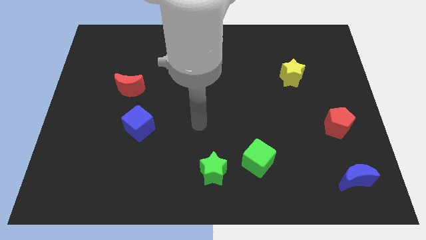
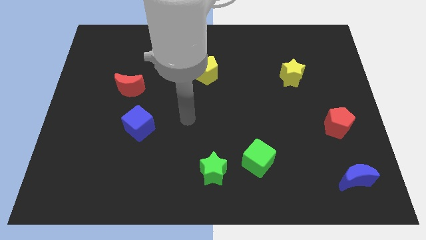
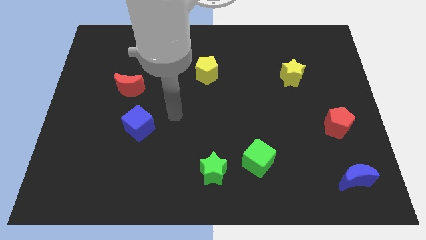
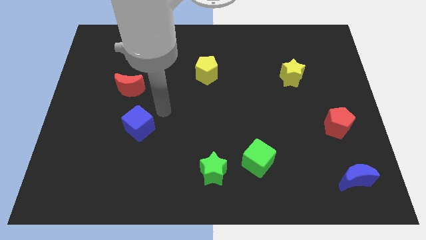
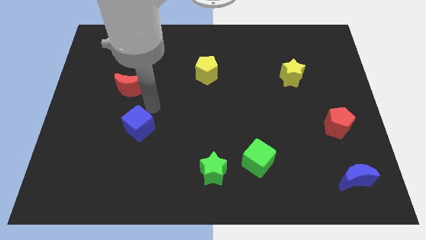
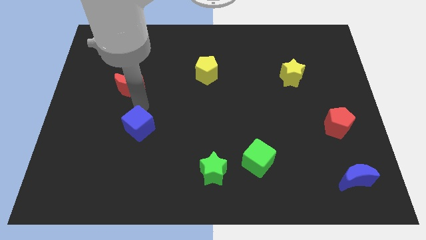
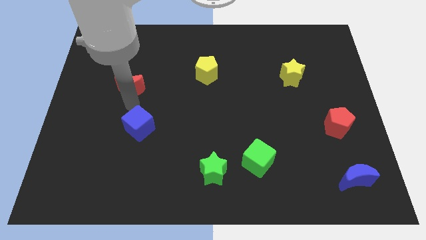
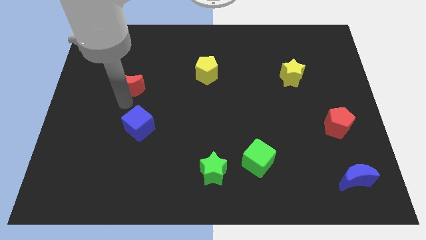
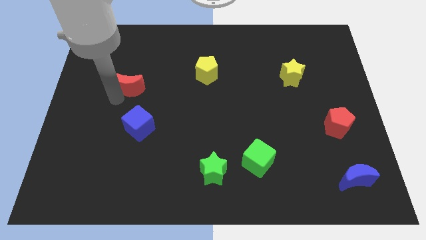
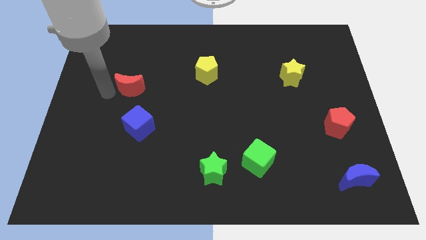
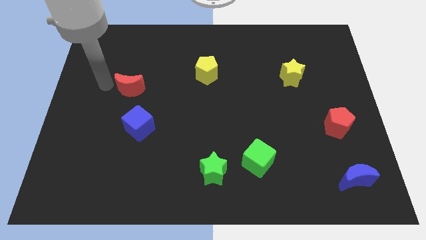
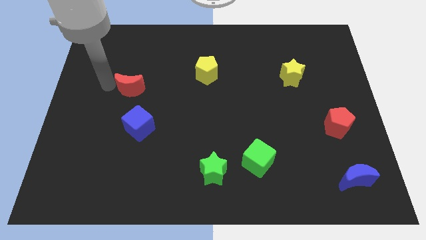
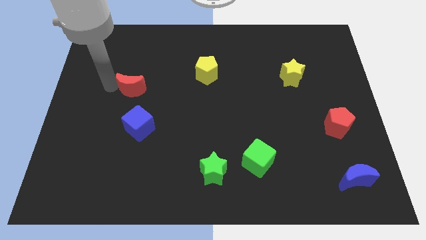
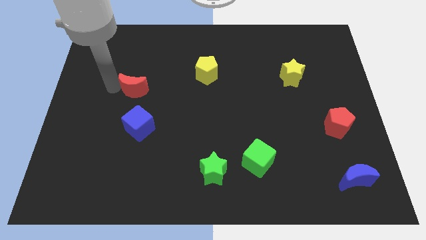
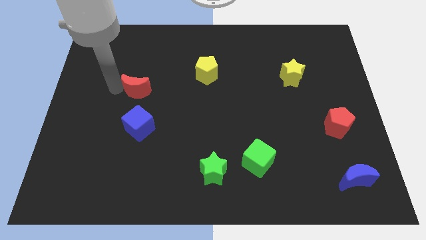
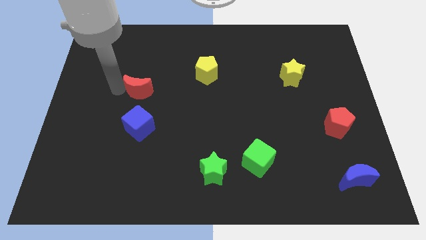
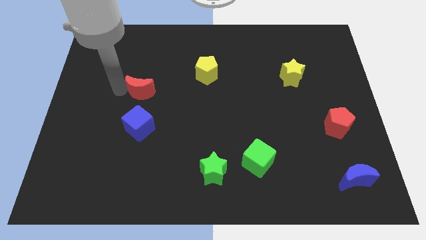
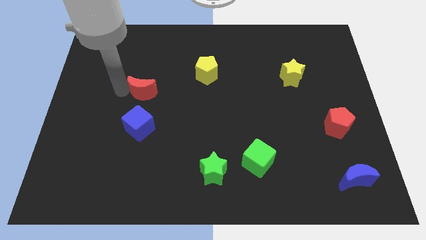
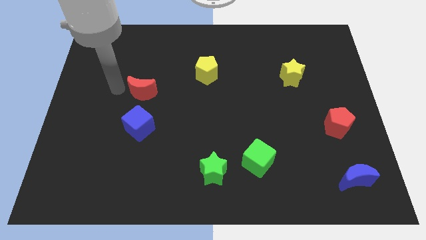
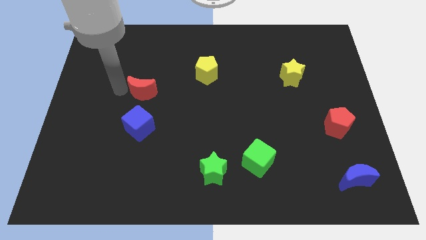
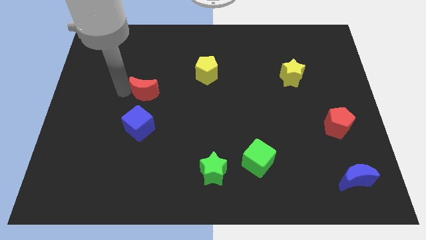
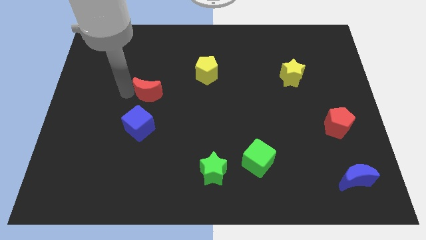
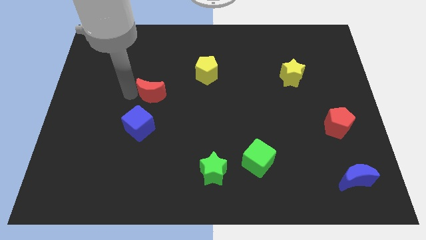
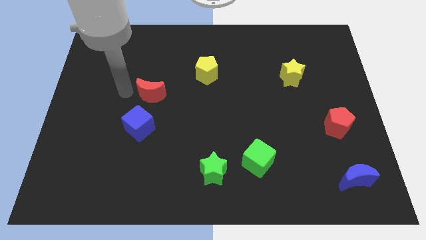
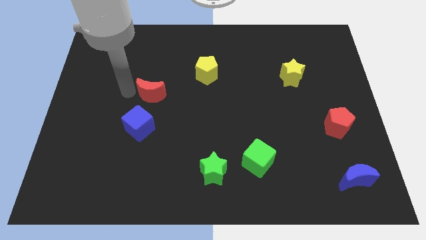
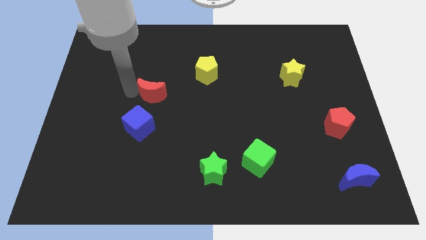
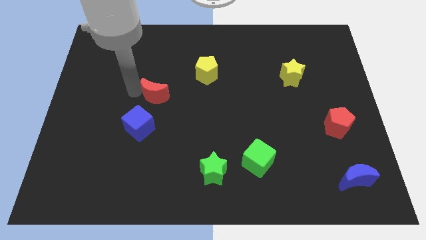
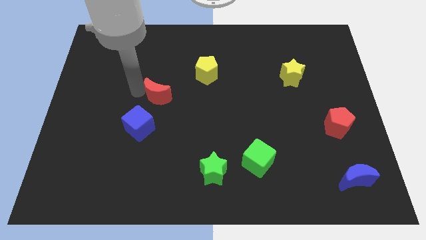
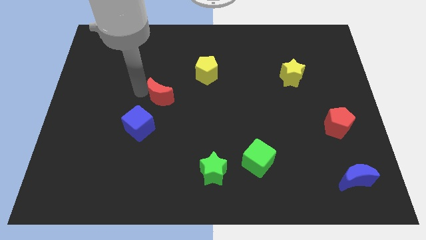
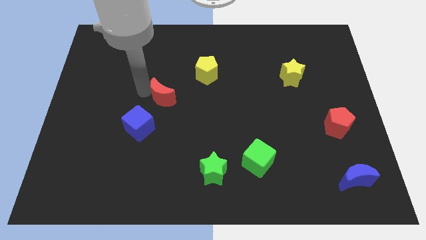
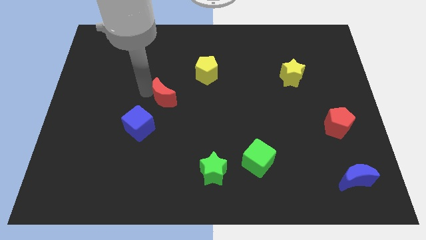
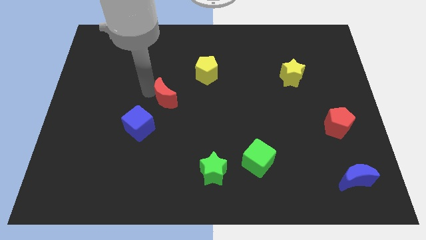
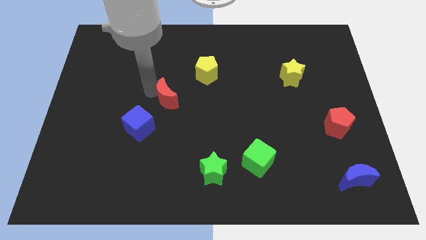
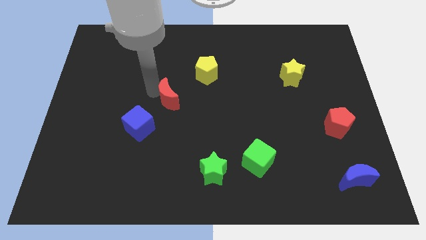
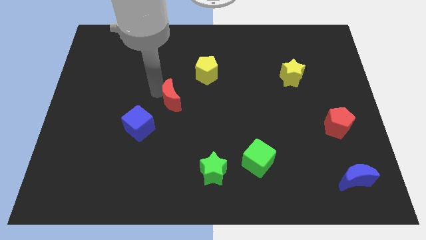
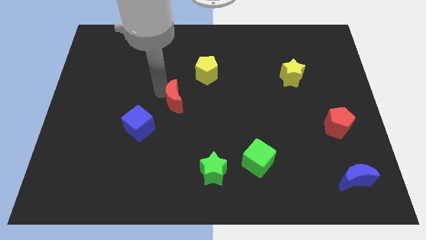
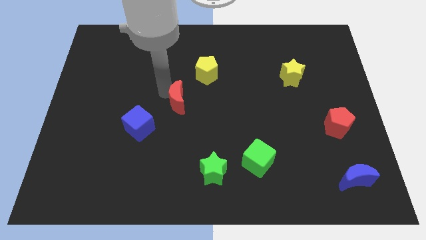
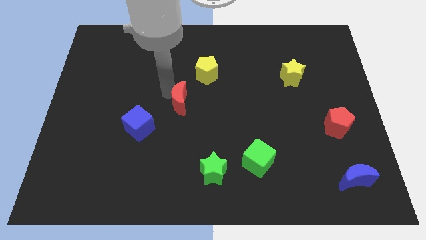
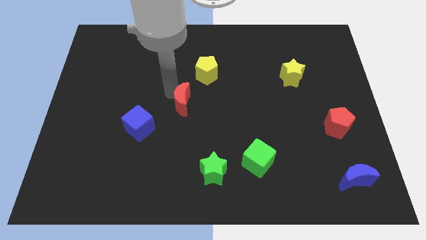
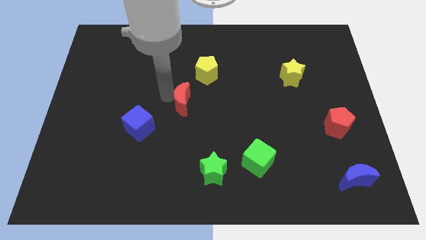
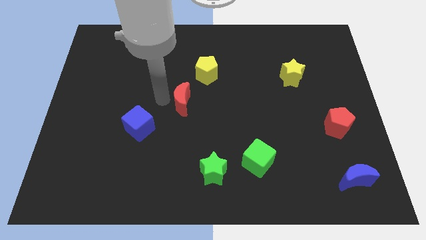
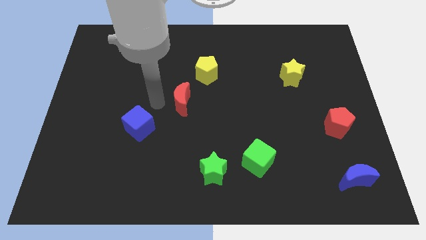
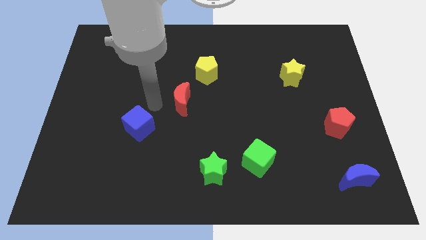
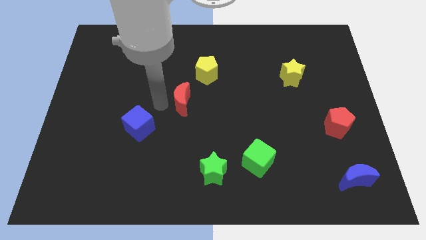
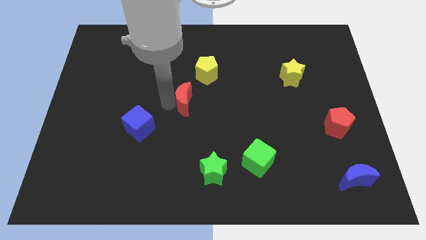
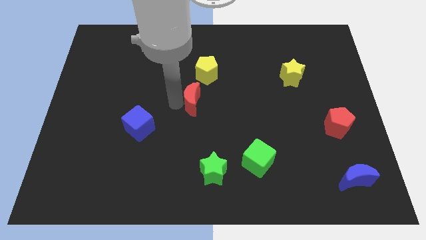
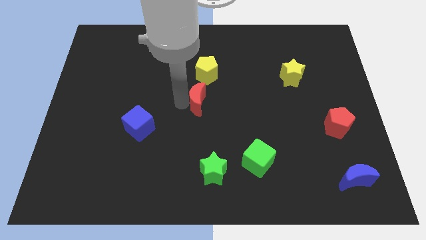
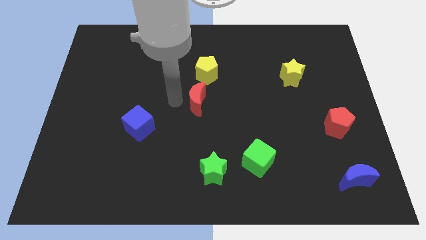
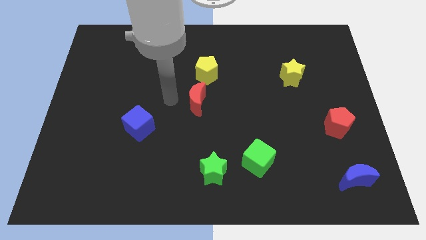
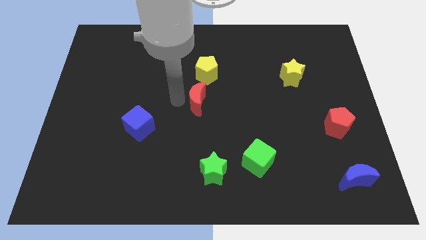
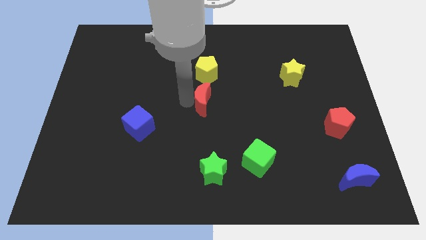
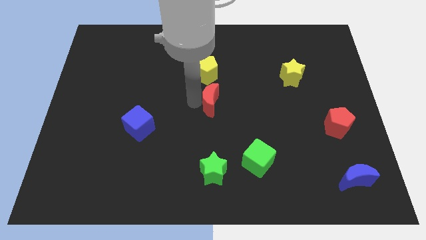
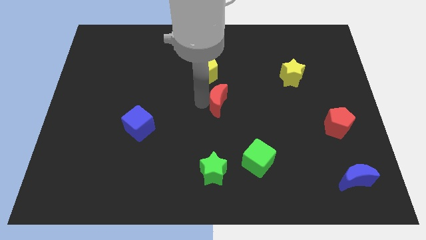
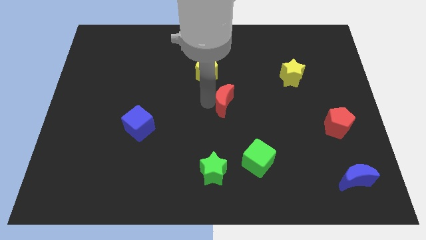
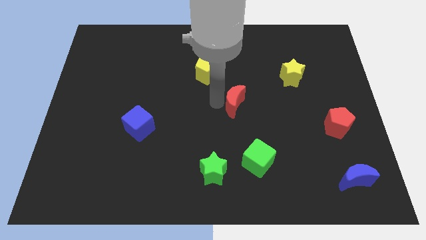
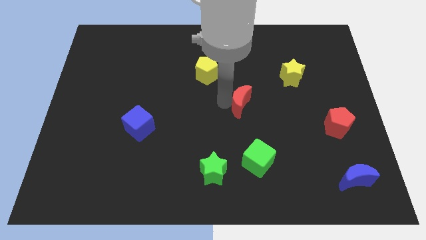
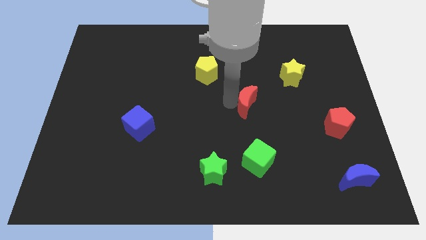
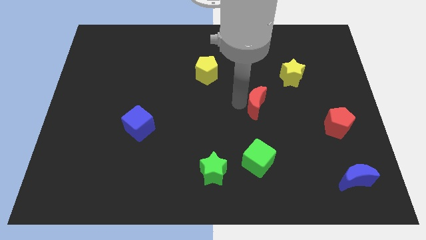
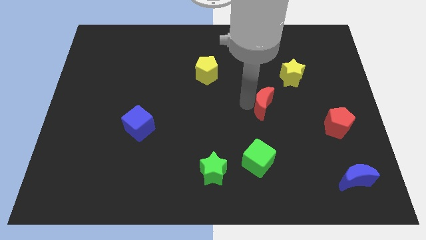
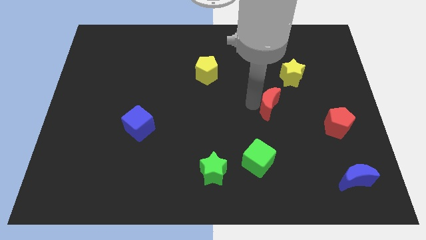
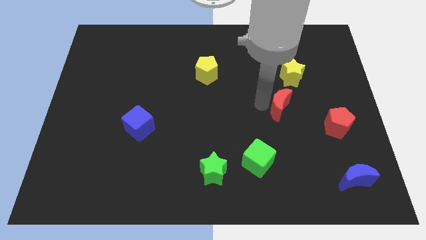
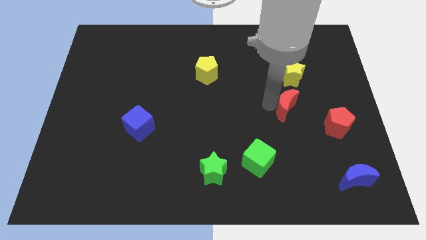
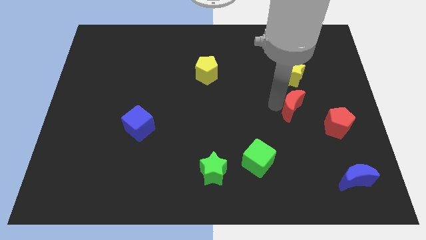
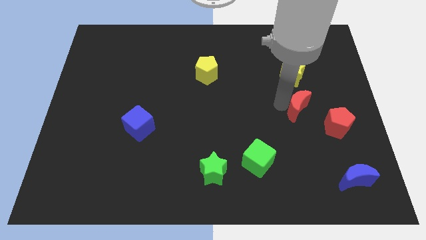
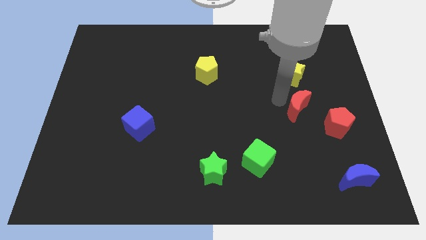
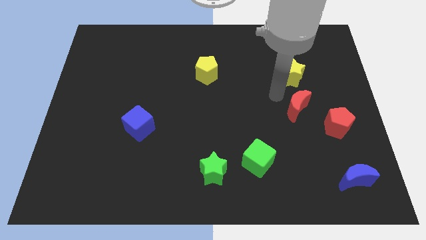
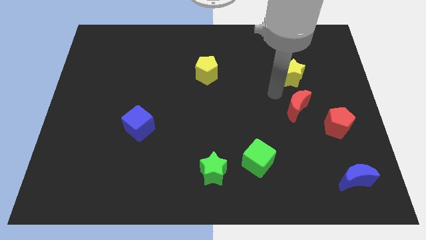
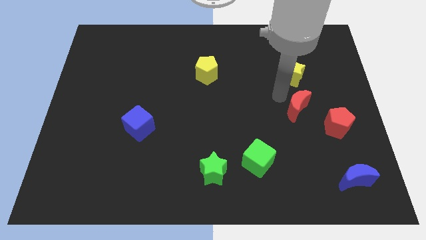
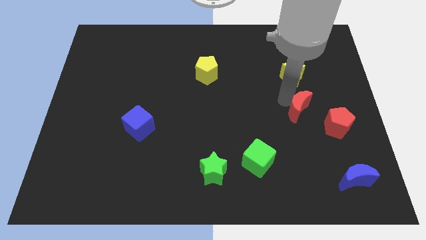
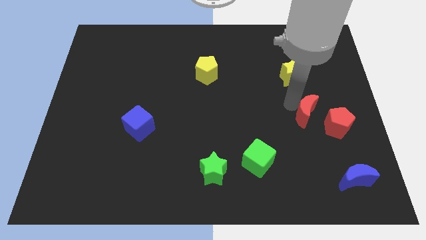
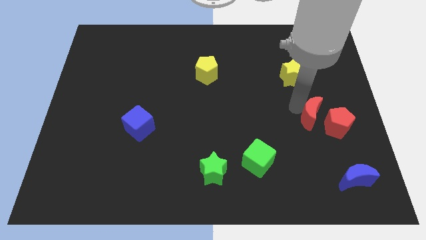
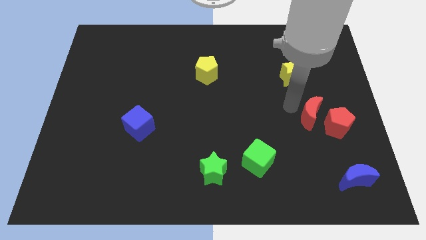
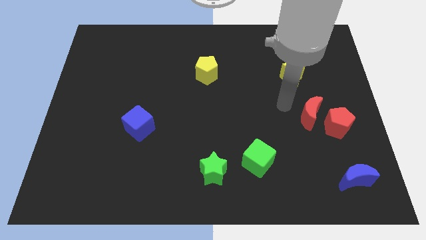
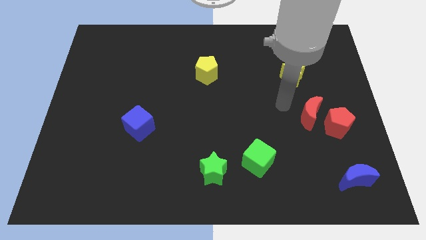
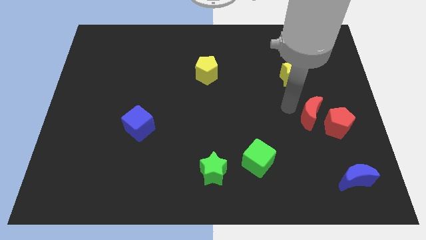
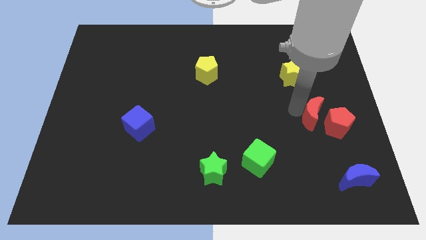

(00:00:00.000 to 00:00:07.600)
move the red moon close to the red pentagon
